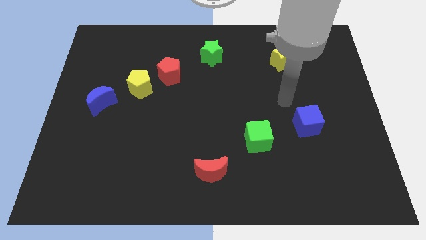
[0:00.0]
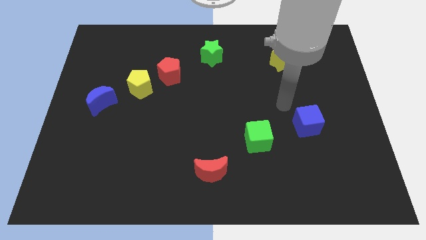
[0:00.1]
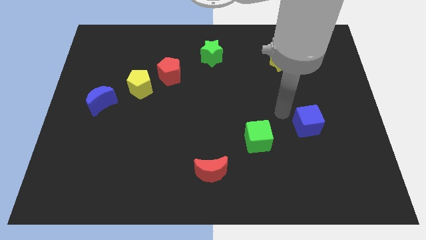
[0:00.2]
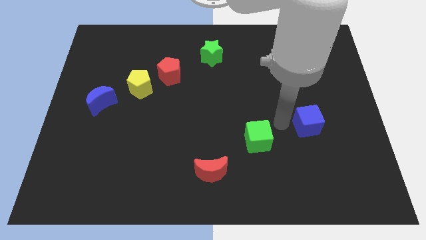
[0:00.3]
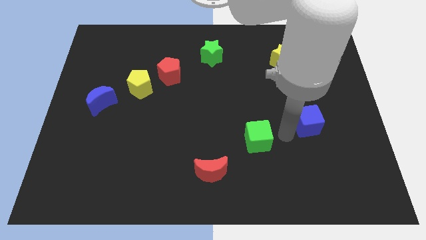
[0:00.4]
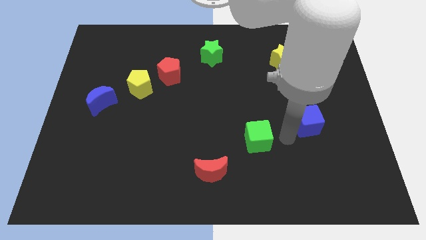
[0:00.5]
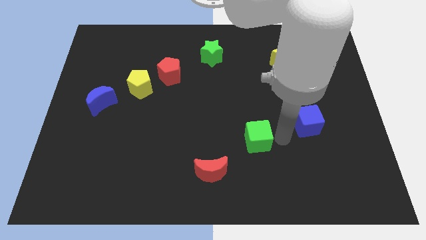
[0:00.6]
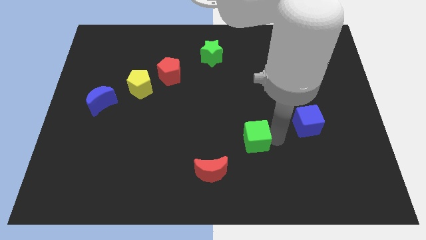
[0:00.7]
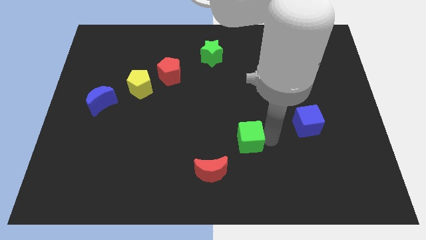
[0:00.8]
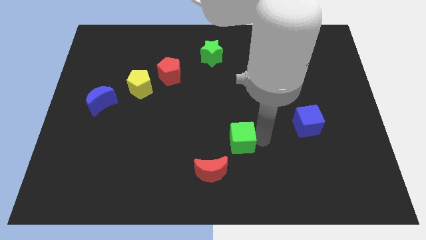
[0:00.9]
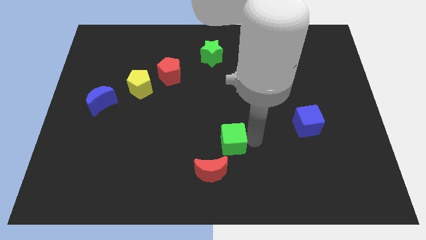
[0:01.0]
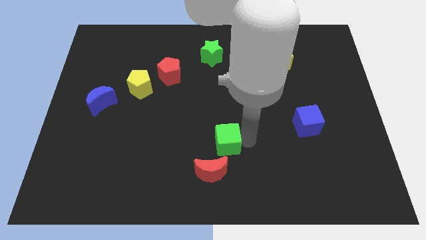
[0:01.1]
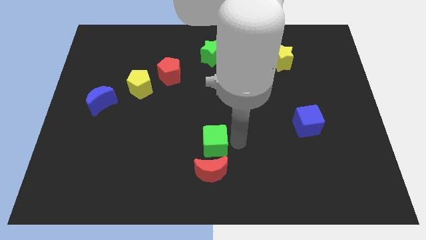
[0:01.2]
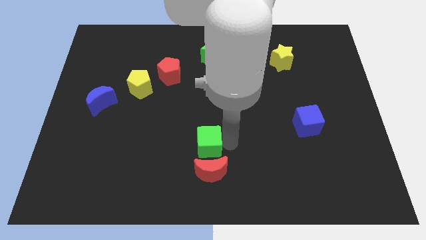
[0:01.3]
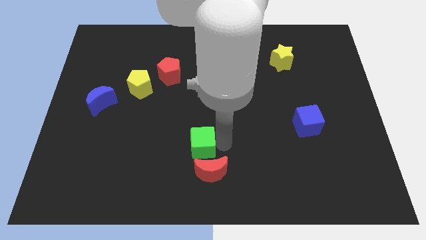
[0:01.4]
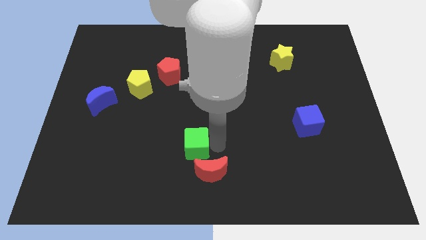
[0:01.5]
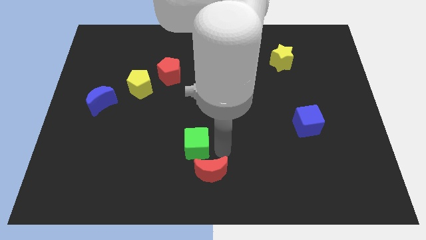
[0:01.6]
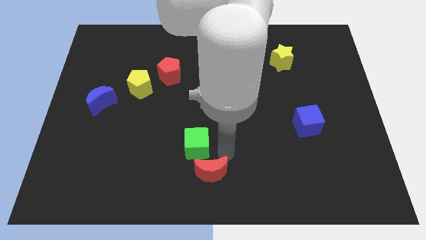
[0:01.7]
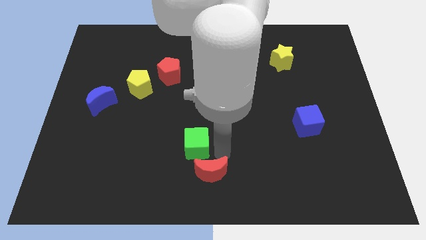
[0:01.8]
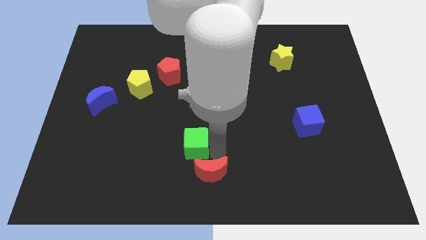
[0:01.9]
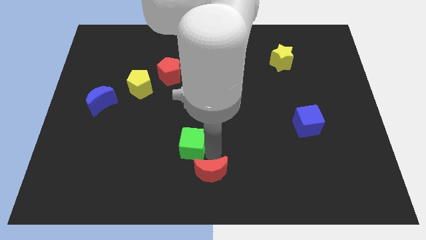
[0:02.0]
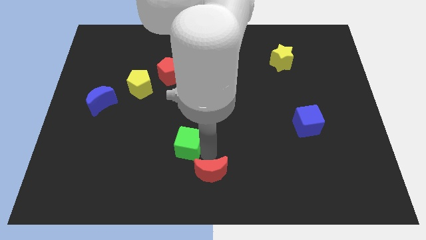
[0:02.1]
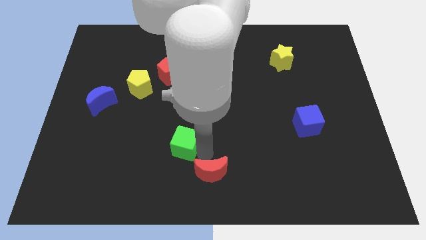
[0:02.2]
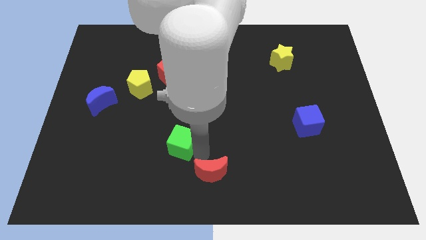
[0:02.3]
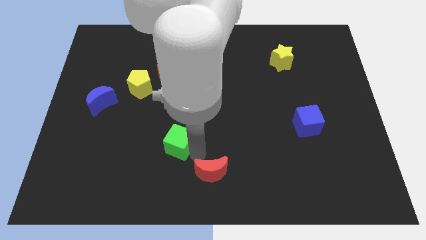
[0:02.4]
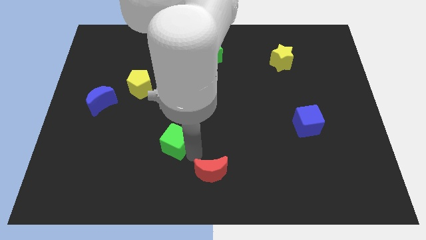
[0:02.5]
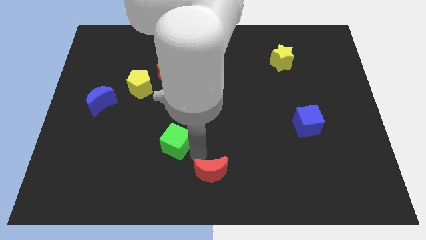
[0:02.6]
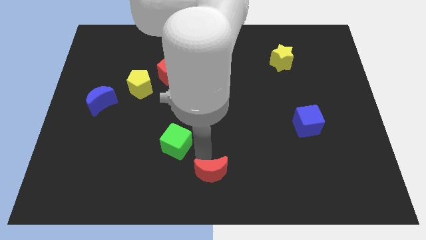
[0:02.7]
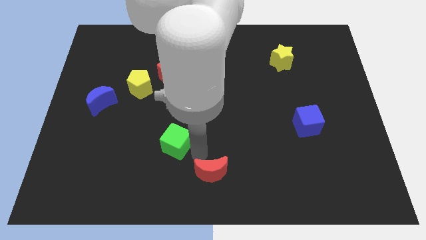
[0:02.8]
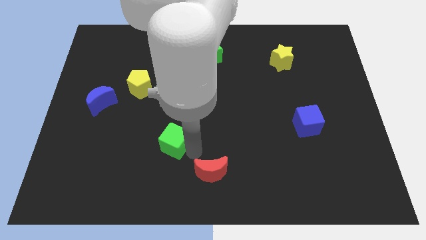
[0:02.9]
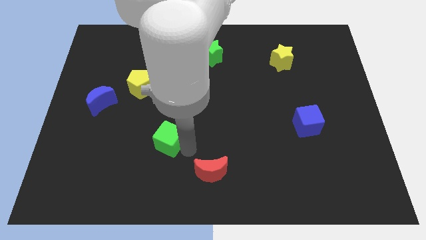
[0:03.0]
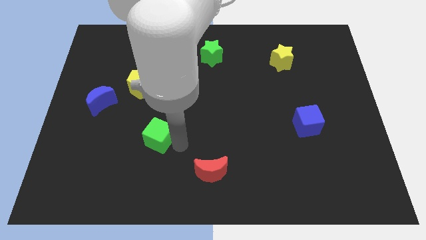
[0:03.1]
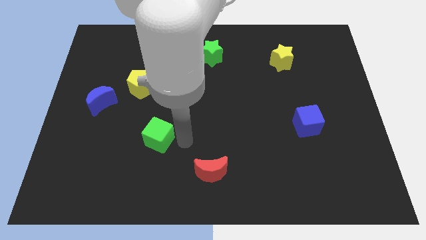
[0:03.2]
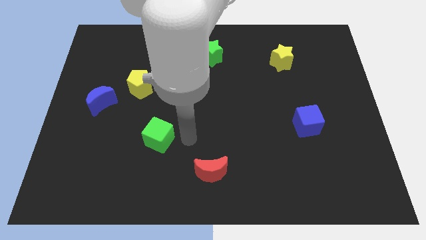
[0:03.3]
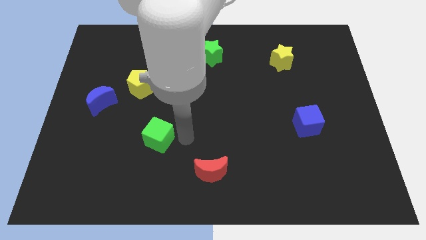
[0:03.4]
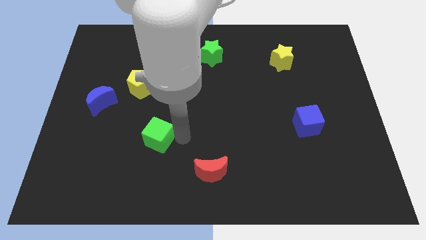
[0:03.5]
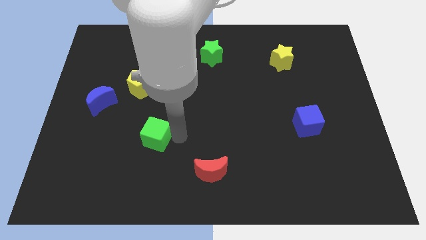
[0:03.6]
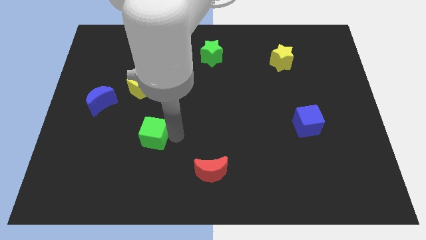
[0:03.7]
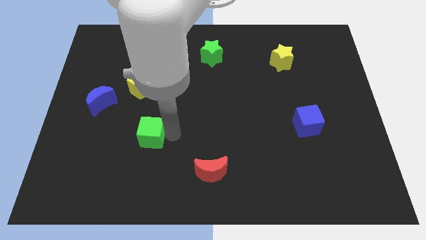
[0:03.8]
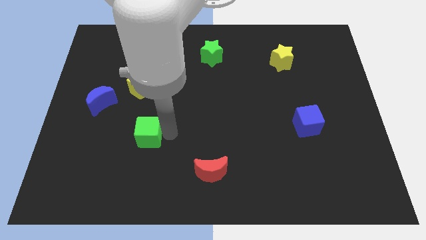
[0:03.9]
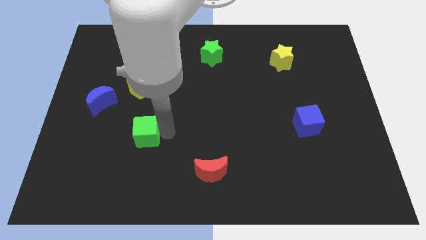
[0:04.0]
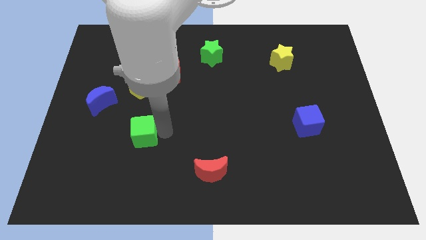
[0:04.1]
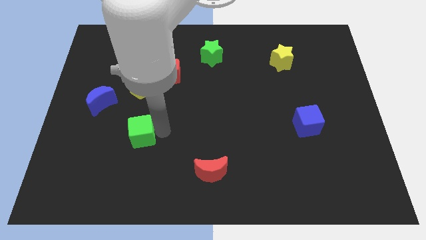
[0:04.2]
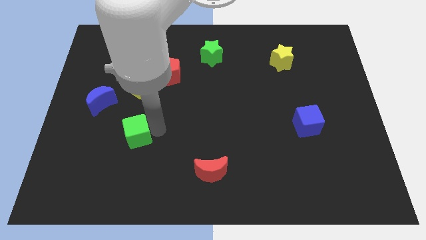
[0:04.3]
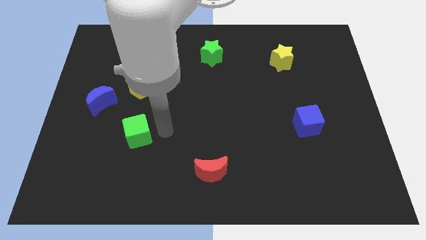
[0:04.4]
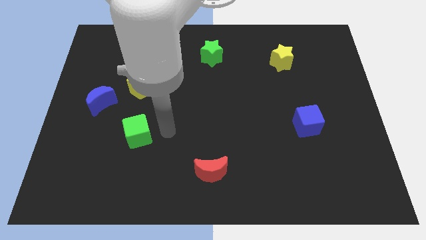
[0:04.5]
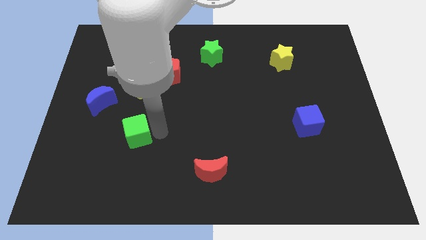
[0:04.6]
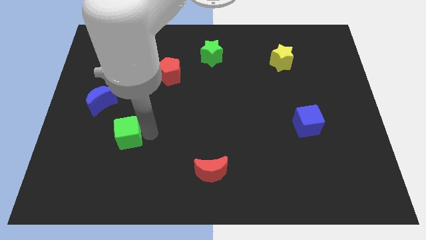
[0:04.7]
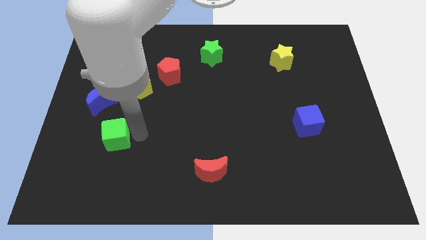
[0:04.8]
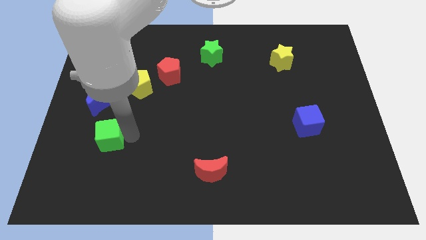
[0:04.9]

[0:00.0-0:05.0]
move the green cube to the bottom of the blue moon

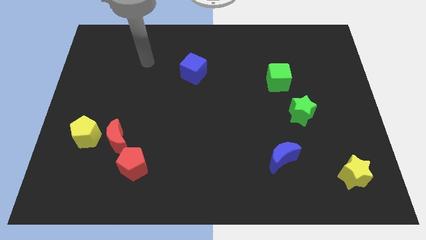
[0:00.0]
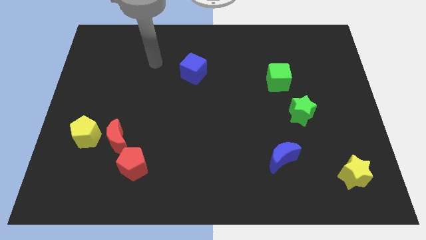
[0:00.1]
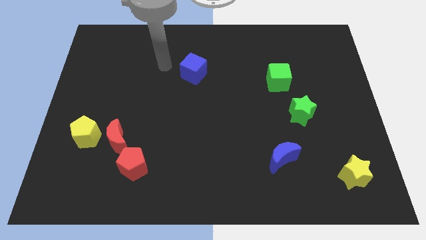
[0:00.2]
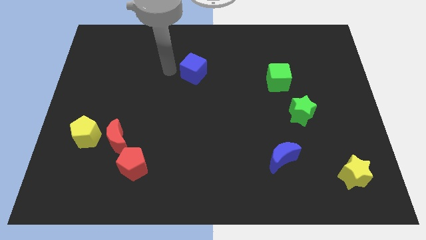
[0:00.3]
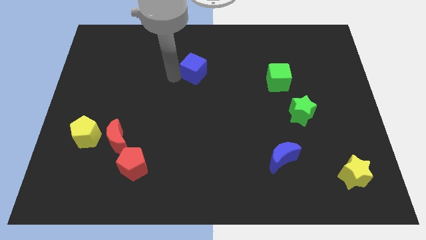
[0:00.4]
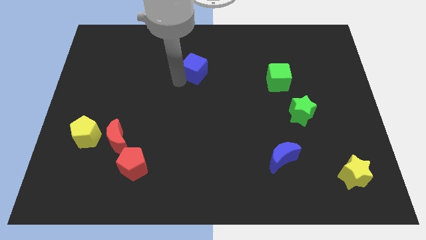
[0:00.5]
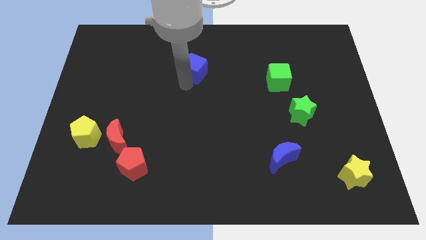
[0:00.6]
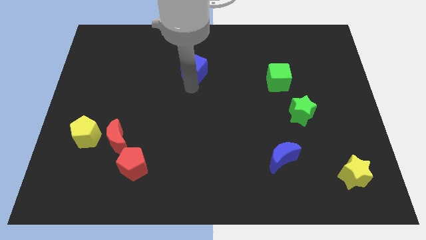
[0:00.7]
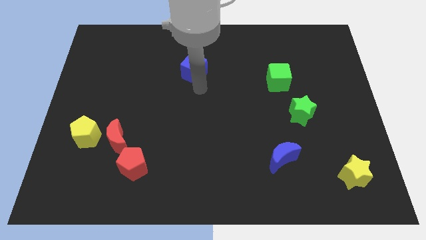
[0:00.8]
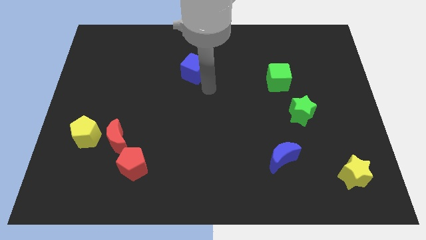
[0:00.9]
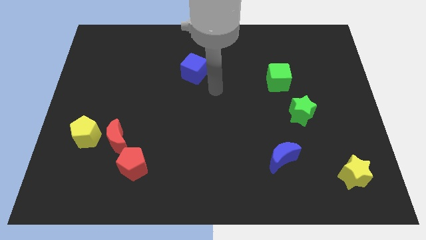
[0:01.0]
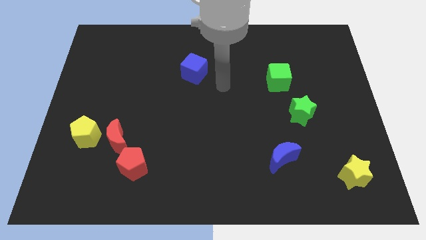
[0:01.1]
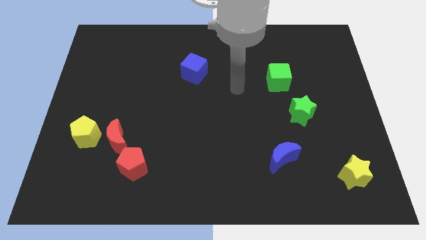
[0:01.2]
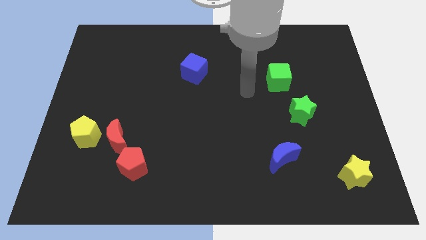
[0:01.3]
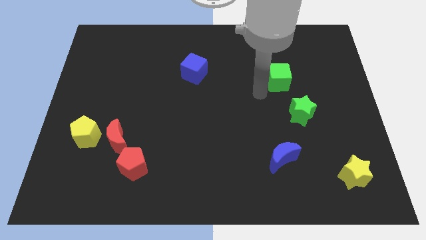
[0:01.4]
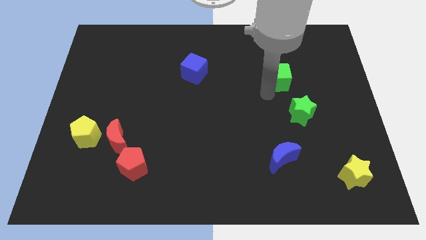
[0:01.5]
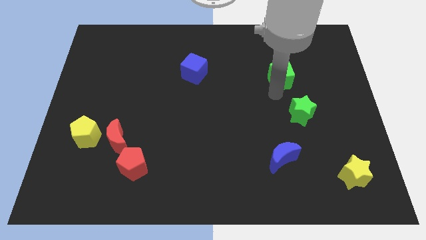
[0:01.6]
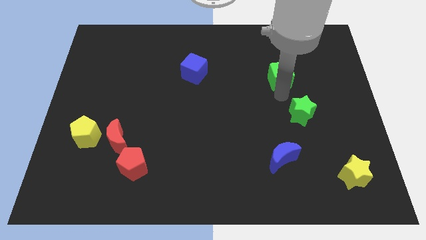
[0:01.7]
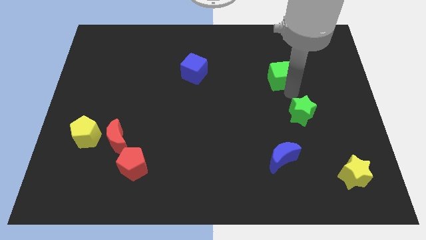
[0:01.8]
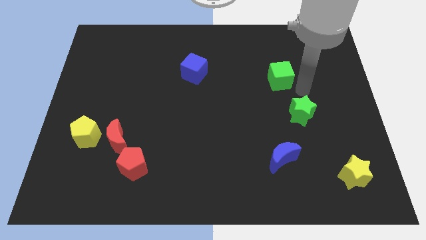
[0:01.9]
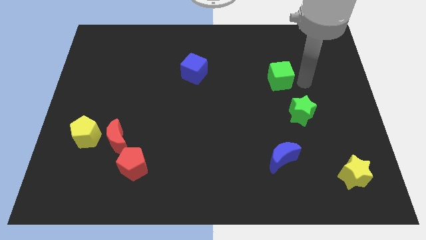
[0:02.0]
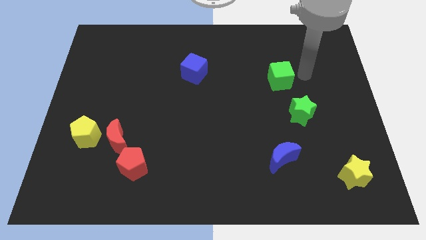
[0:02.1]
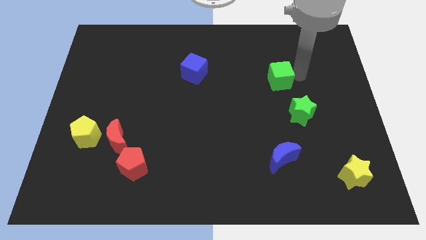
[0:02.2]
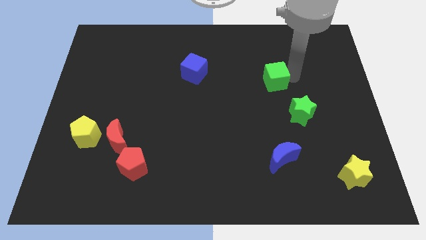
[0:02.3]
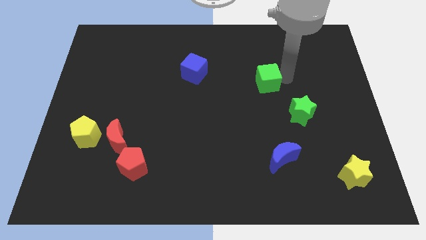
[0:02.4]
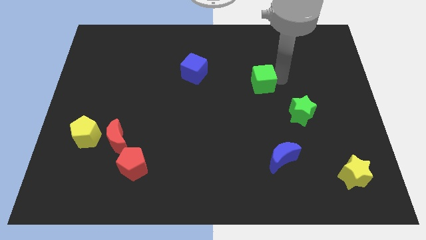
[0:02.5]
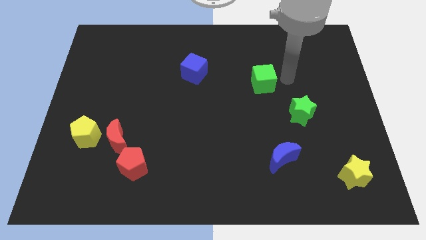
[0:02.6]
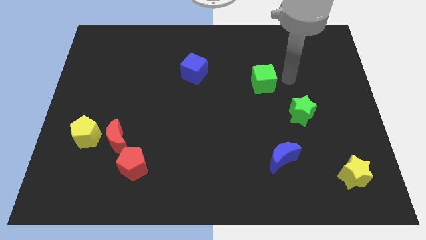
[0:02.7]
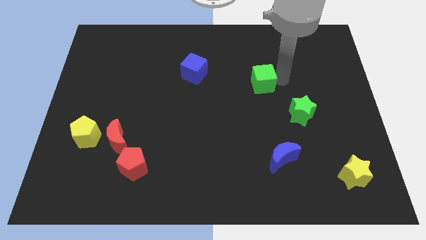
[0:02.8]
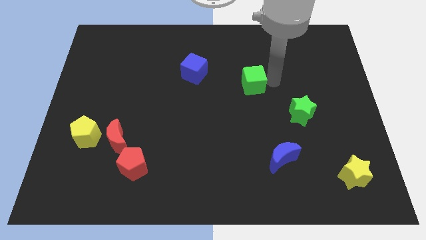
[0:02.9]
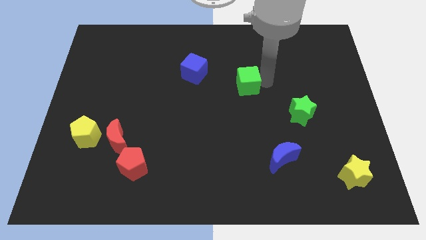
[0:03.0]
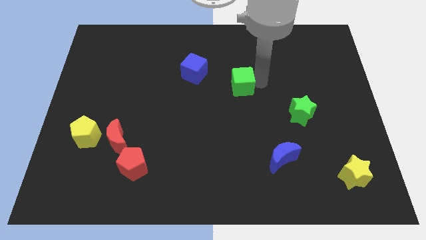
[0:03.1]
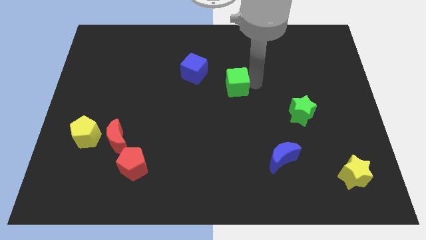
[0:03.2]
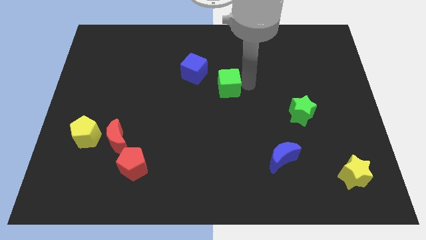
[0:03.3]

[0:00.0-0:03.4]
push the green cube to the bottom right of the blue cube
